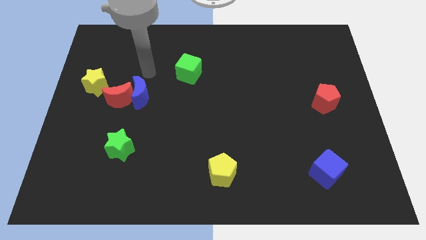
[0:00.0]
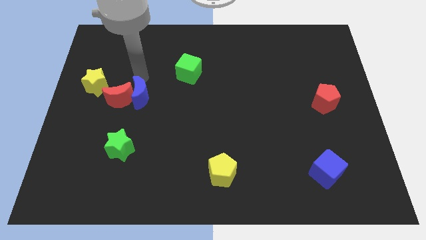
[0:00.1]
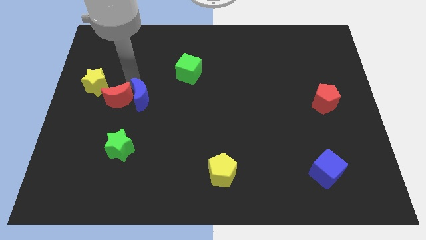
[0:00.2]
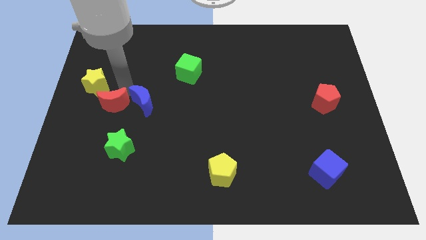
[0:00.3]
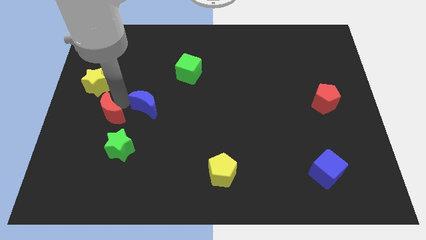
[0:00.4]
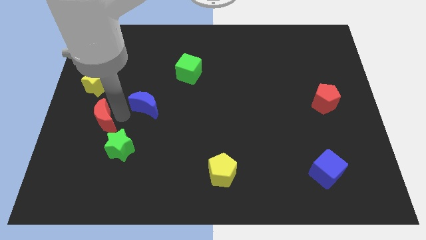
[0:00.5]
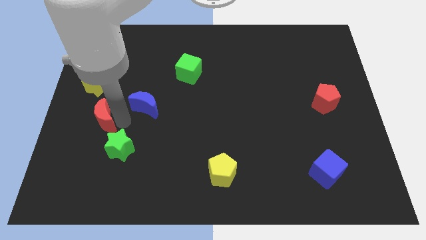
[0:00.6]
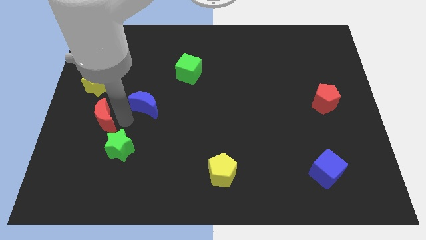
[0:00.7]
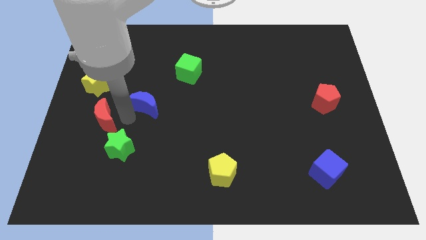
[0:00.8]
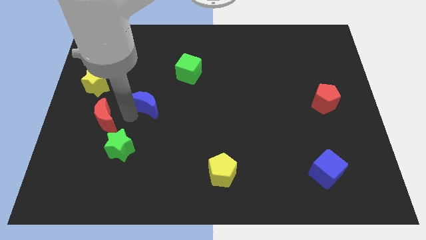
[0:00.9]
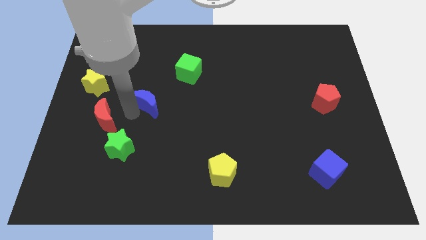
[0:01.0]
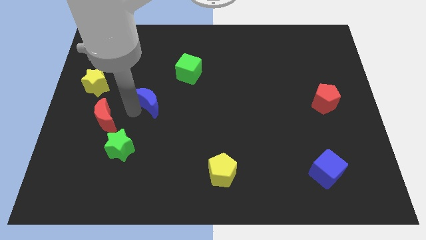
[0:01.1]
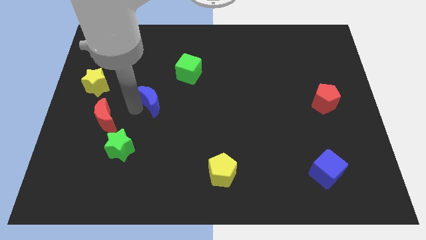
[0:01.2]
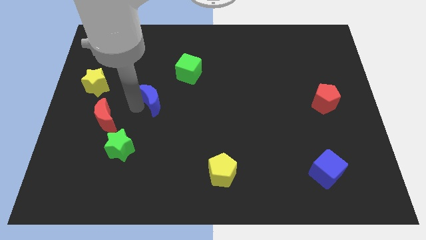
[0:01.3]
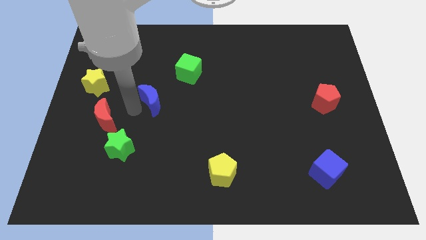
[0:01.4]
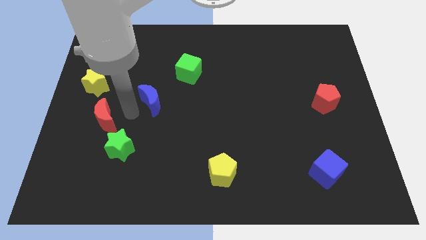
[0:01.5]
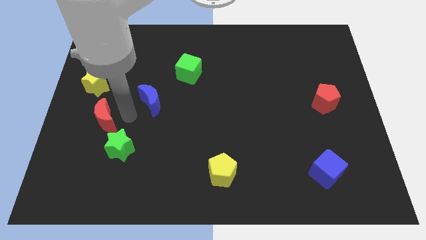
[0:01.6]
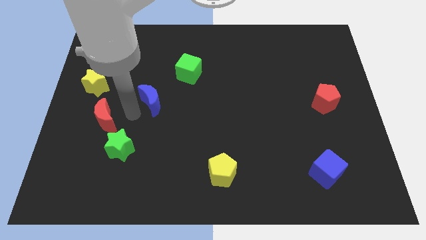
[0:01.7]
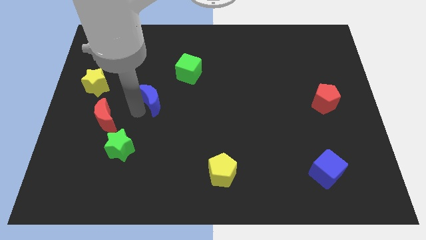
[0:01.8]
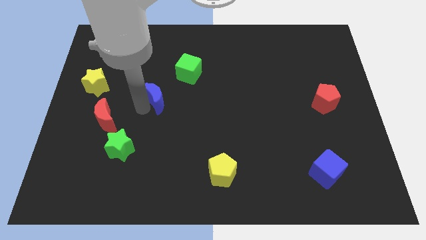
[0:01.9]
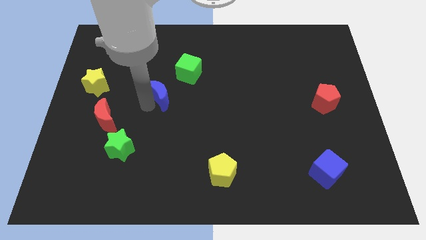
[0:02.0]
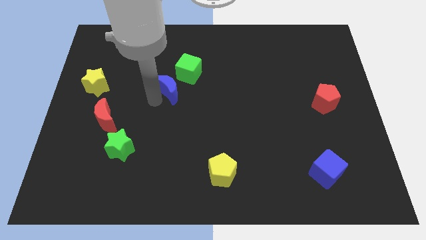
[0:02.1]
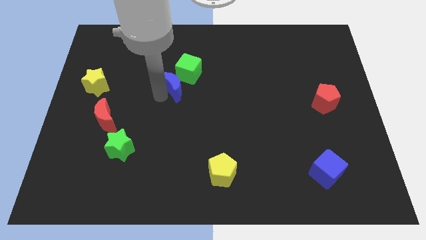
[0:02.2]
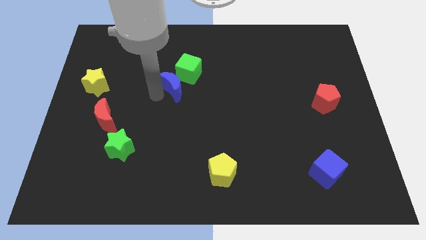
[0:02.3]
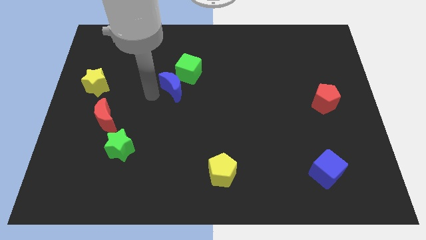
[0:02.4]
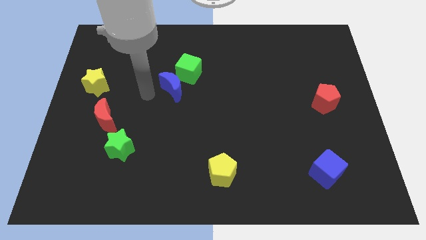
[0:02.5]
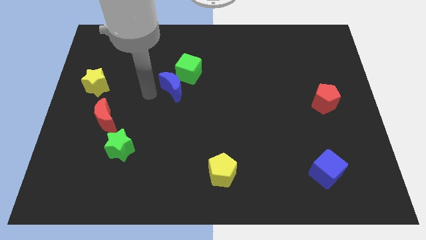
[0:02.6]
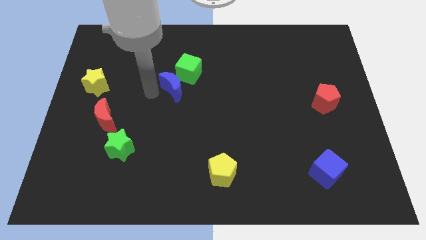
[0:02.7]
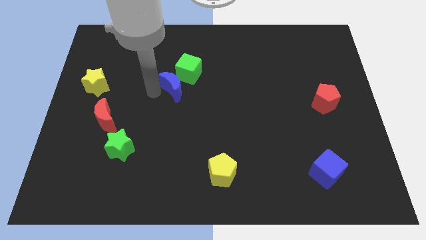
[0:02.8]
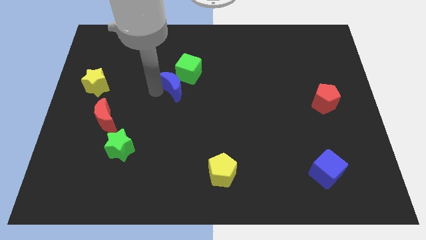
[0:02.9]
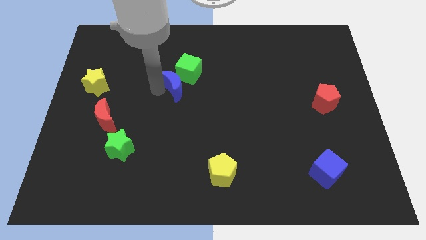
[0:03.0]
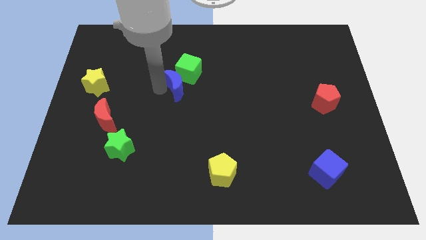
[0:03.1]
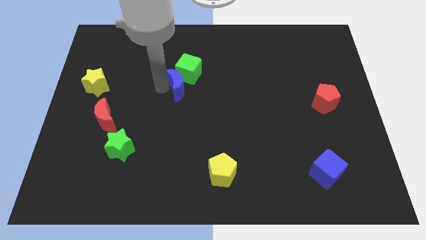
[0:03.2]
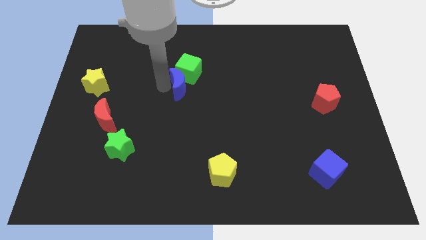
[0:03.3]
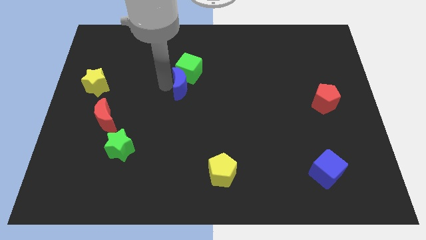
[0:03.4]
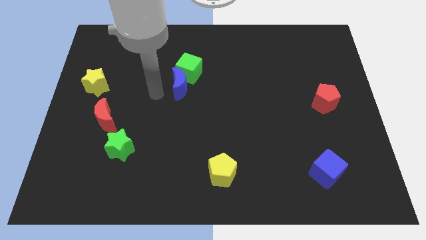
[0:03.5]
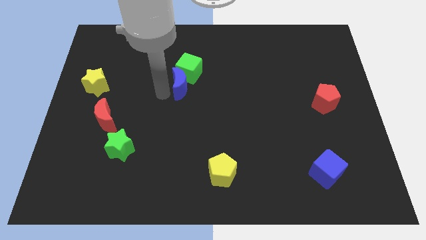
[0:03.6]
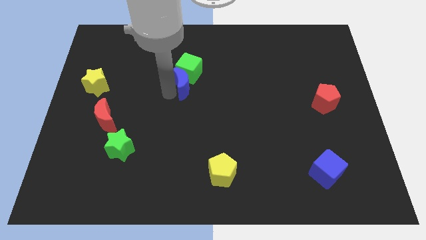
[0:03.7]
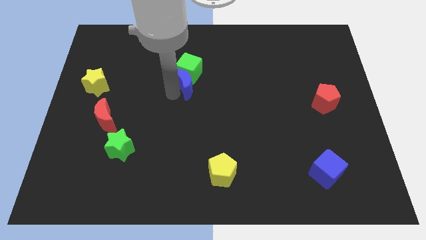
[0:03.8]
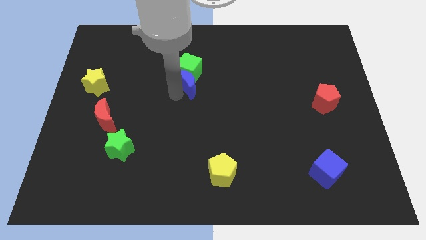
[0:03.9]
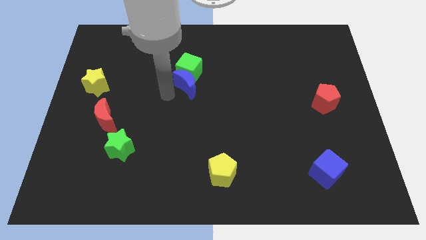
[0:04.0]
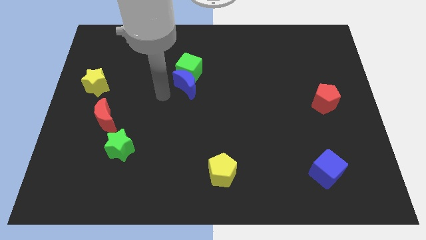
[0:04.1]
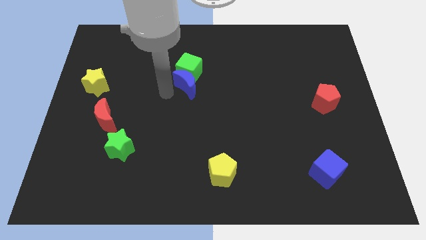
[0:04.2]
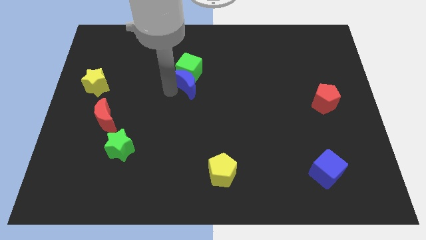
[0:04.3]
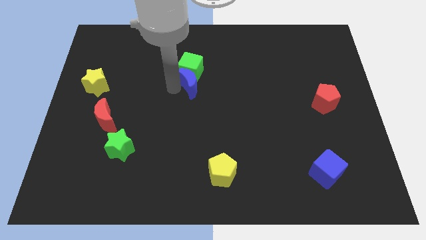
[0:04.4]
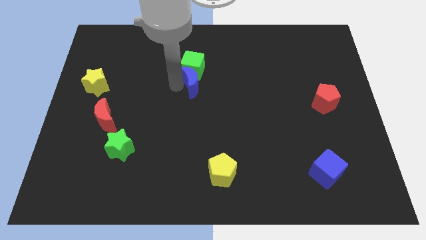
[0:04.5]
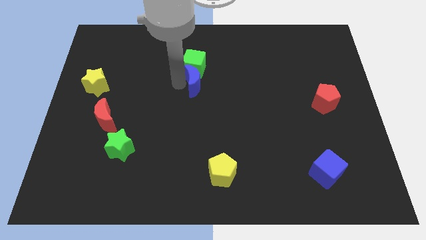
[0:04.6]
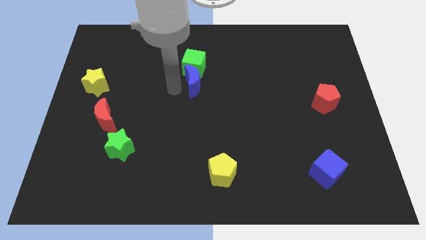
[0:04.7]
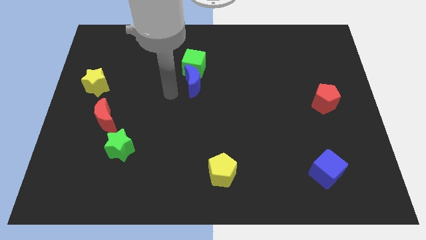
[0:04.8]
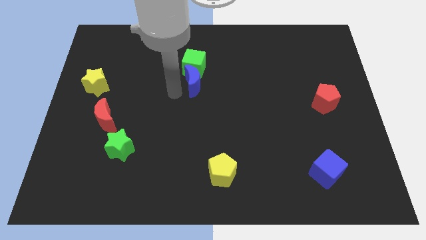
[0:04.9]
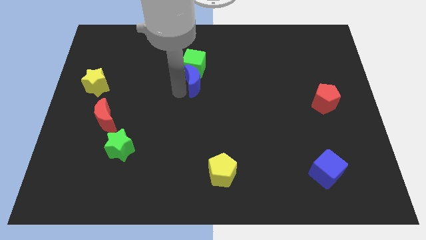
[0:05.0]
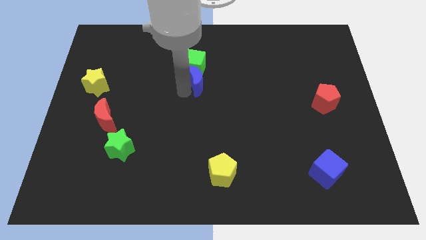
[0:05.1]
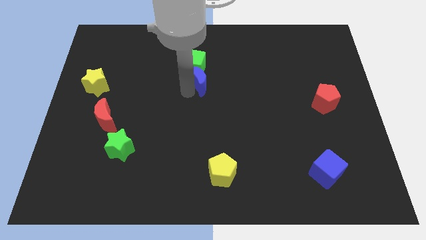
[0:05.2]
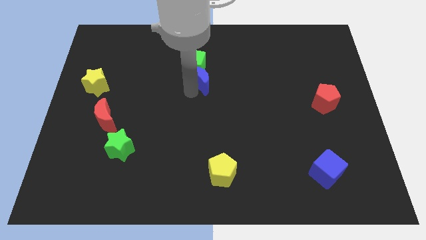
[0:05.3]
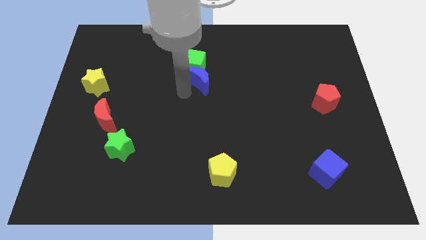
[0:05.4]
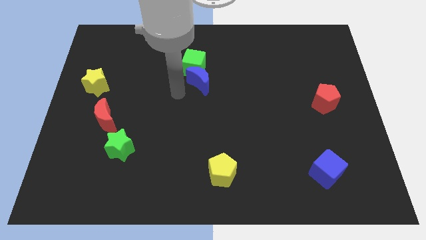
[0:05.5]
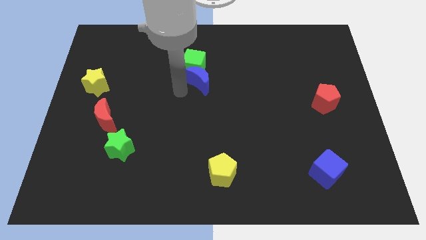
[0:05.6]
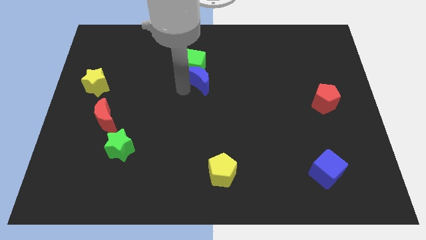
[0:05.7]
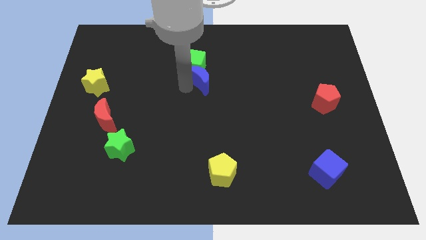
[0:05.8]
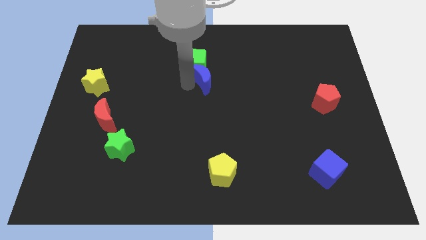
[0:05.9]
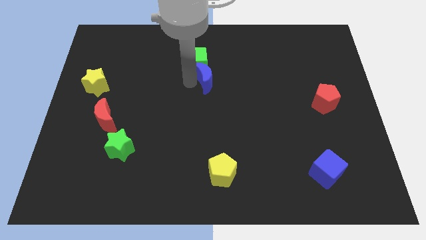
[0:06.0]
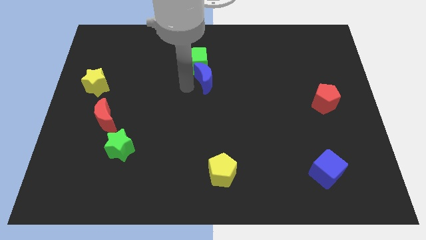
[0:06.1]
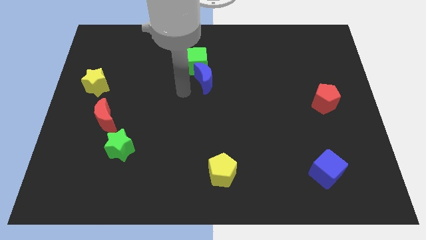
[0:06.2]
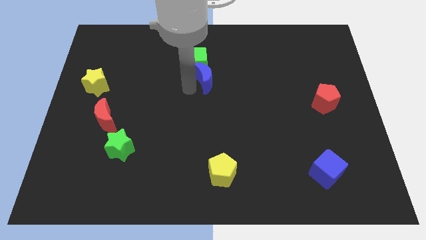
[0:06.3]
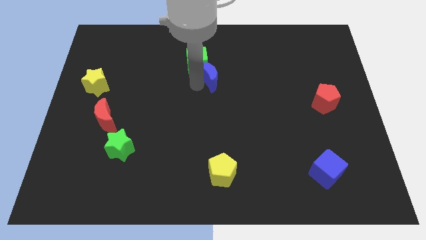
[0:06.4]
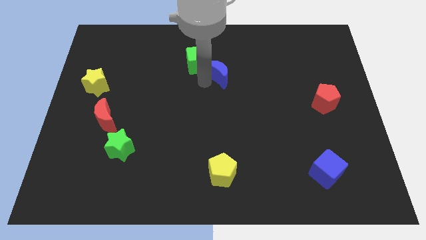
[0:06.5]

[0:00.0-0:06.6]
put the blue moon just right of the green cube

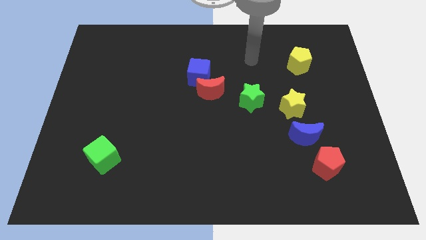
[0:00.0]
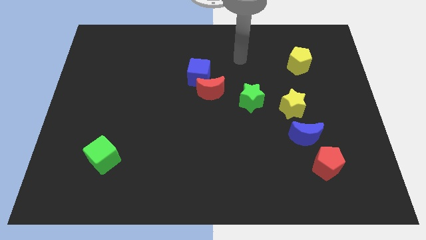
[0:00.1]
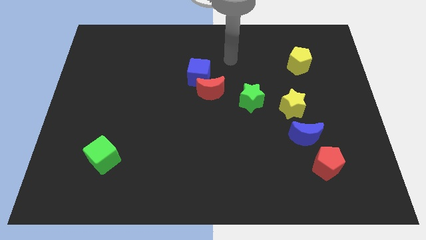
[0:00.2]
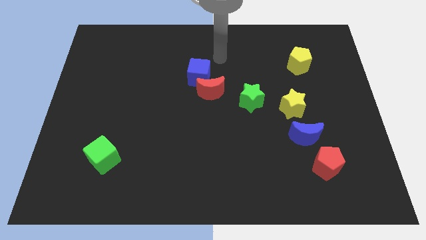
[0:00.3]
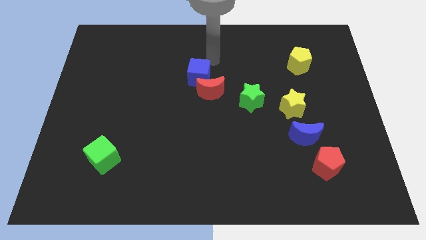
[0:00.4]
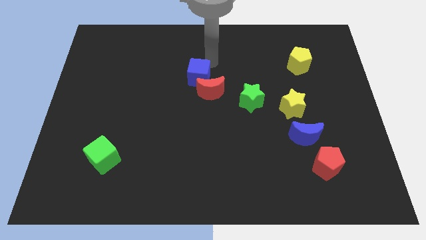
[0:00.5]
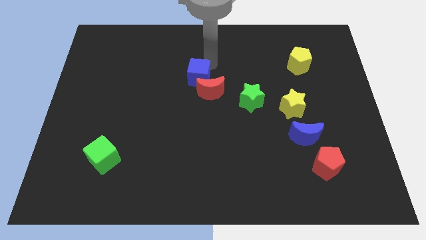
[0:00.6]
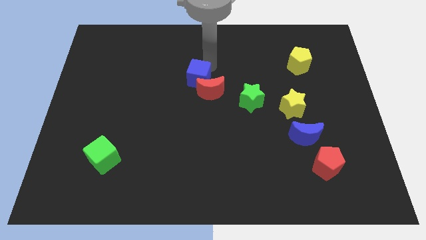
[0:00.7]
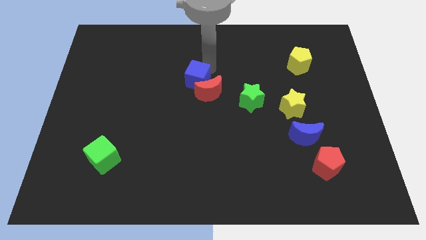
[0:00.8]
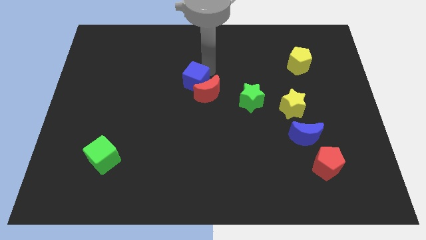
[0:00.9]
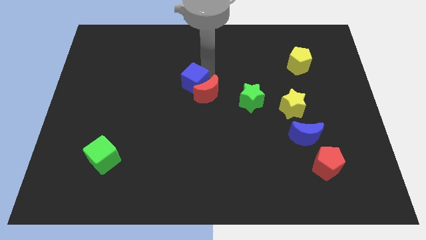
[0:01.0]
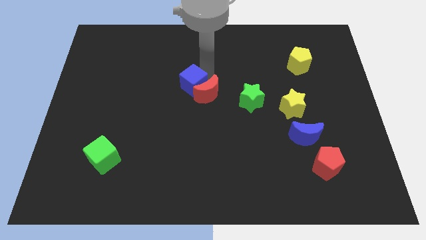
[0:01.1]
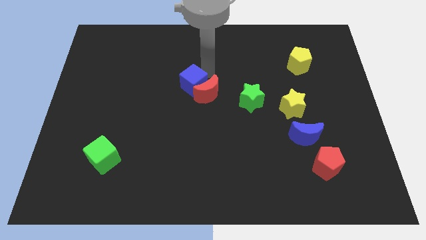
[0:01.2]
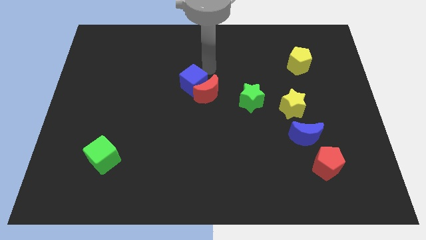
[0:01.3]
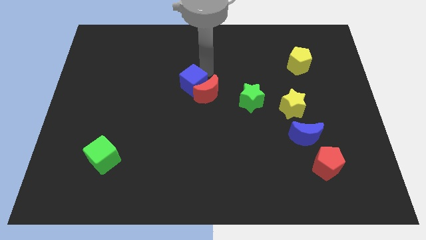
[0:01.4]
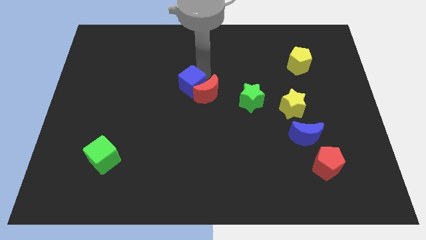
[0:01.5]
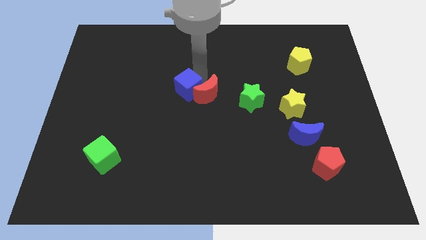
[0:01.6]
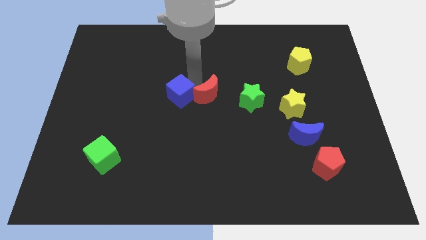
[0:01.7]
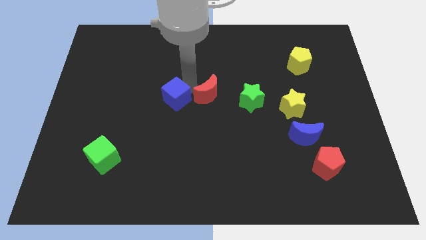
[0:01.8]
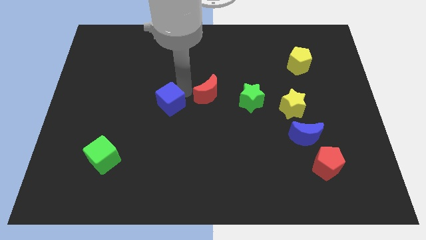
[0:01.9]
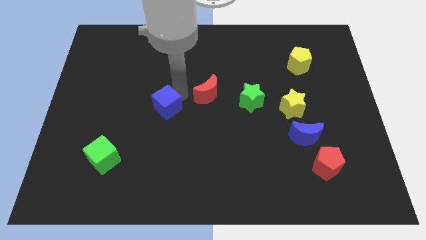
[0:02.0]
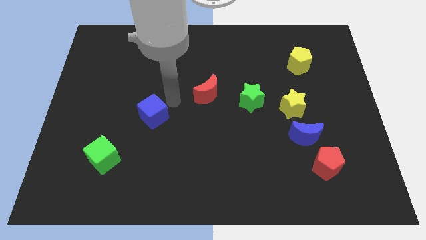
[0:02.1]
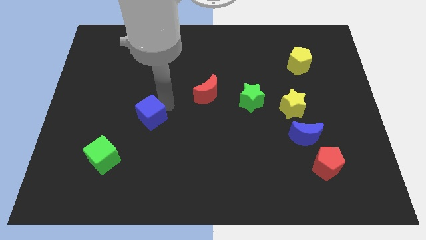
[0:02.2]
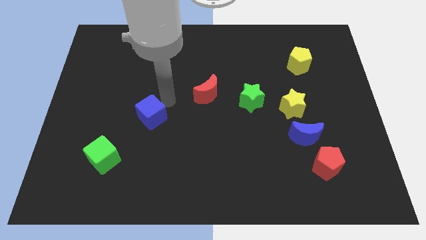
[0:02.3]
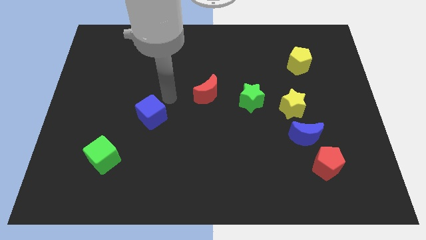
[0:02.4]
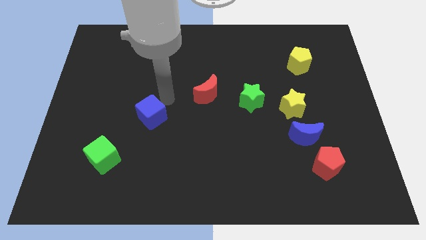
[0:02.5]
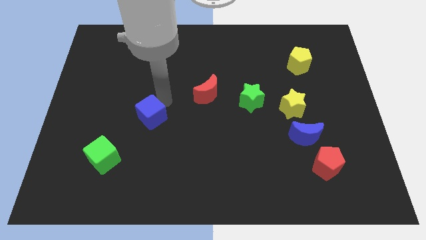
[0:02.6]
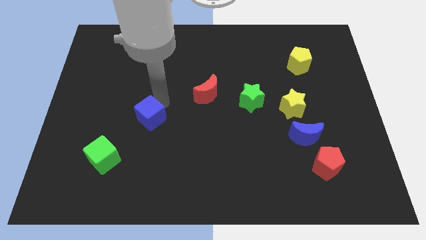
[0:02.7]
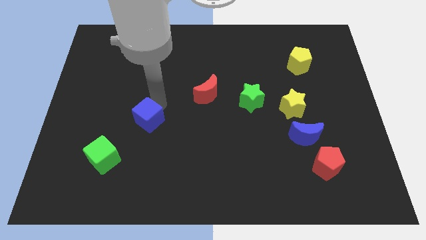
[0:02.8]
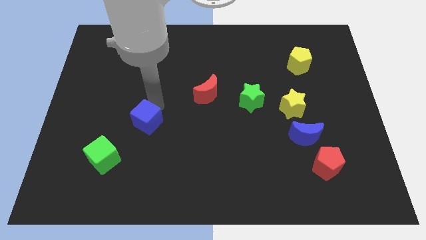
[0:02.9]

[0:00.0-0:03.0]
put the blue cube to the top right of the green cube
